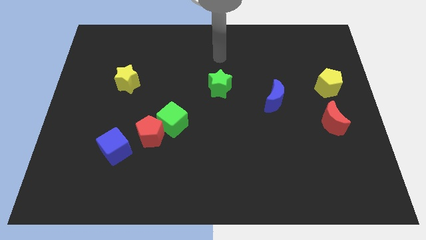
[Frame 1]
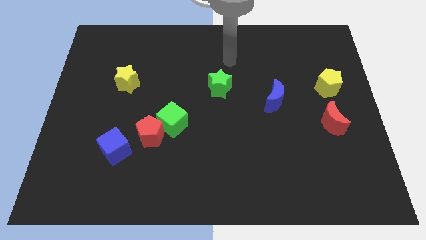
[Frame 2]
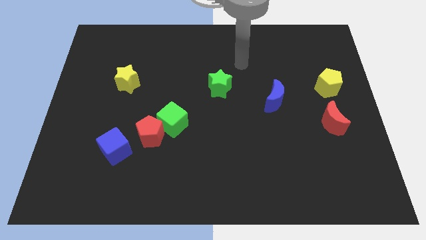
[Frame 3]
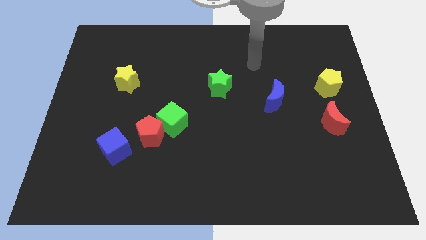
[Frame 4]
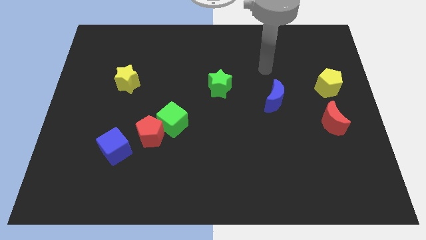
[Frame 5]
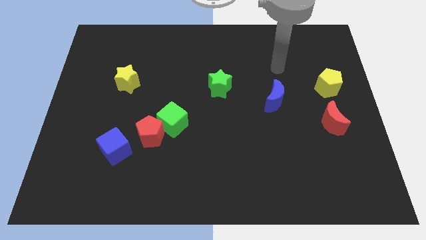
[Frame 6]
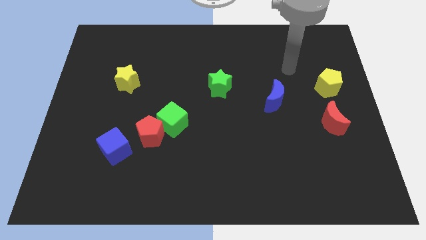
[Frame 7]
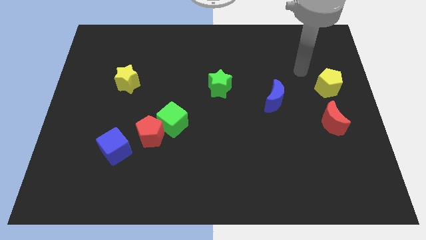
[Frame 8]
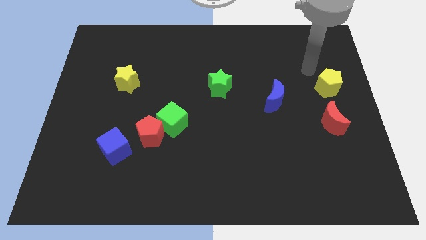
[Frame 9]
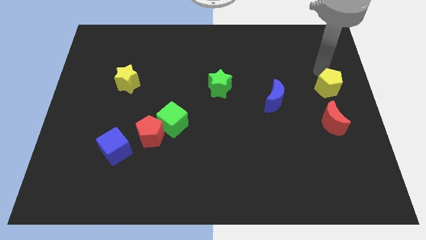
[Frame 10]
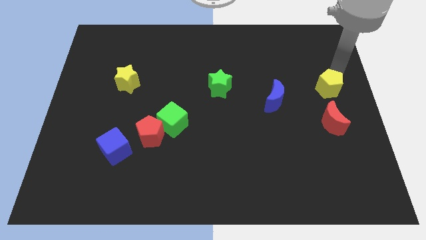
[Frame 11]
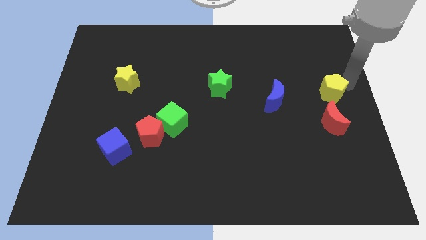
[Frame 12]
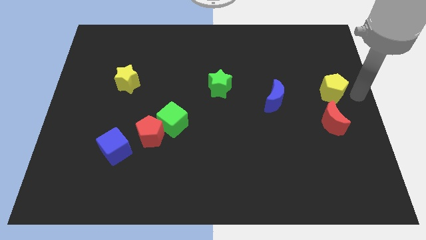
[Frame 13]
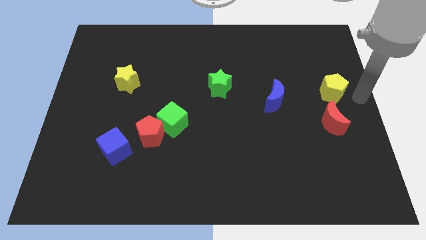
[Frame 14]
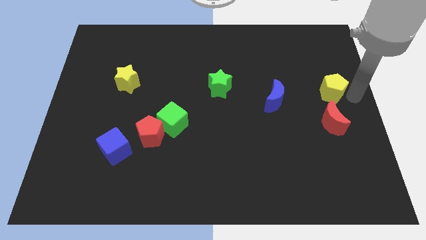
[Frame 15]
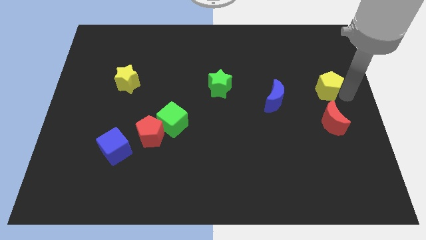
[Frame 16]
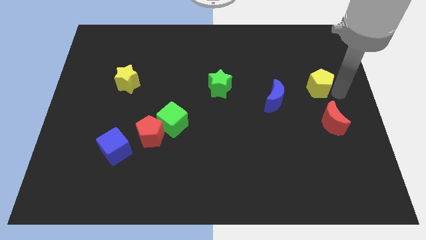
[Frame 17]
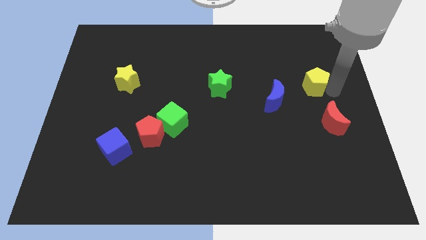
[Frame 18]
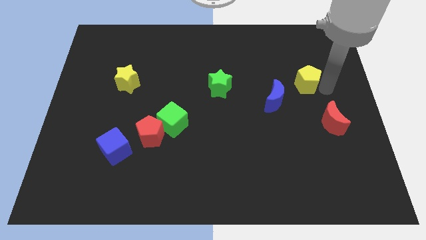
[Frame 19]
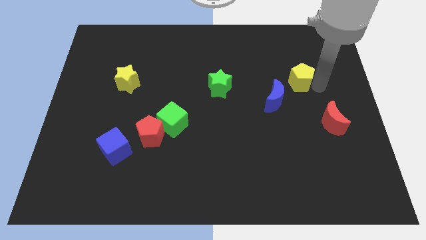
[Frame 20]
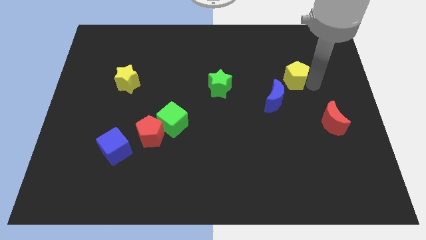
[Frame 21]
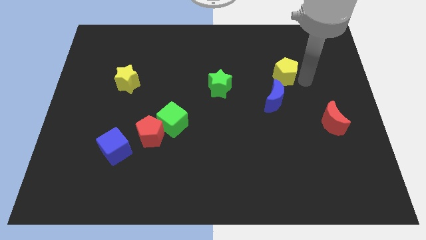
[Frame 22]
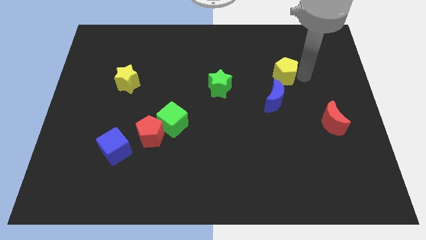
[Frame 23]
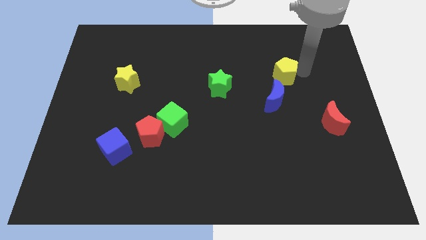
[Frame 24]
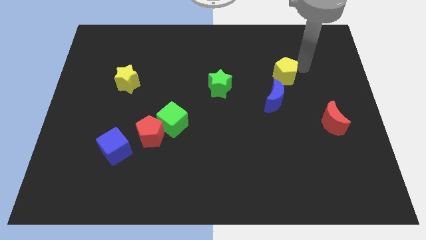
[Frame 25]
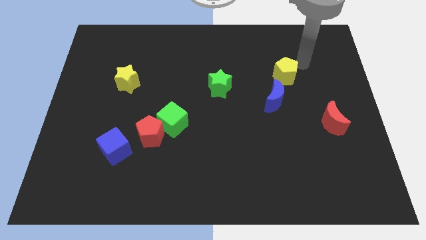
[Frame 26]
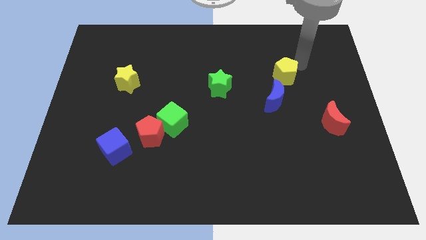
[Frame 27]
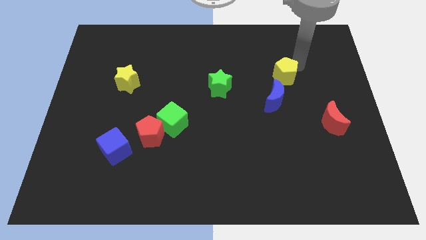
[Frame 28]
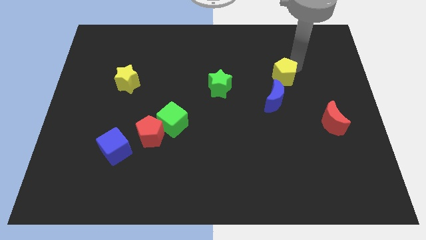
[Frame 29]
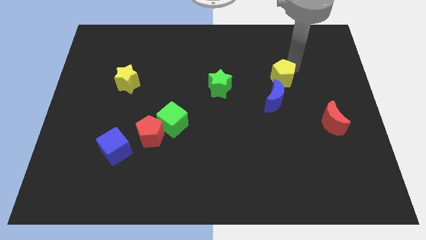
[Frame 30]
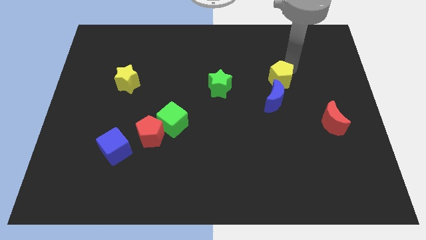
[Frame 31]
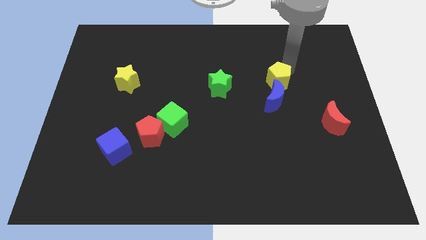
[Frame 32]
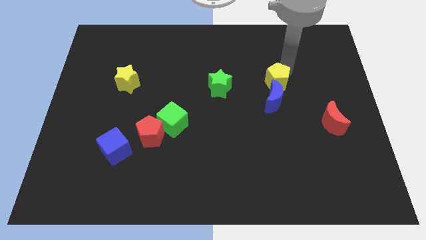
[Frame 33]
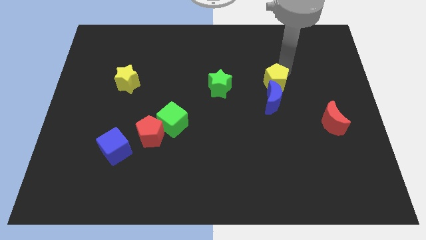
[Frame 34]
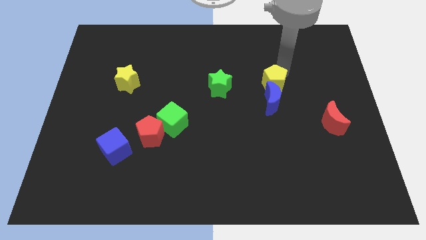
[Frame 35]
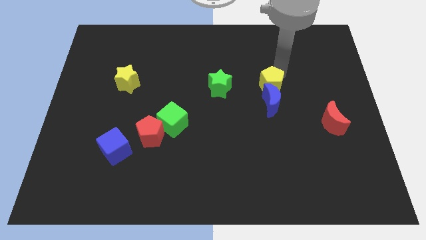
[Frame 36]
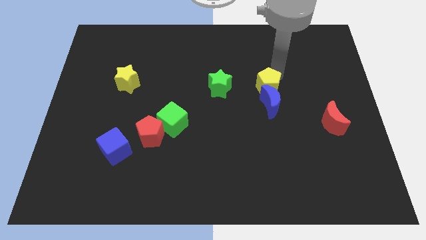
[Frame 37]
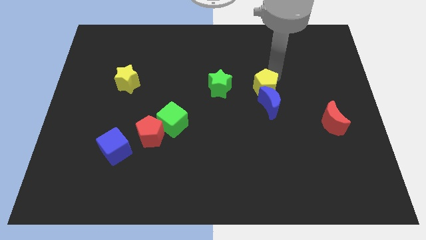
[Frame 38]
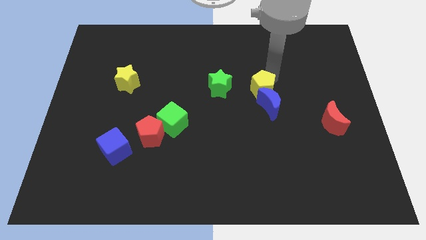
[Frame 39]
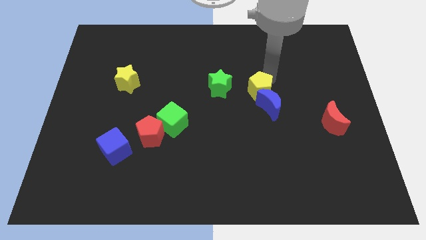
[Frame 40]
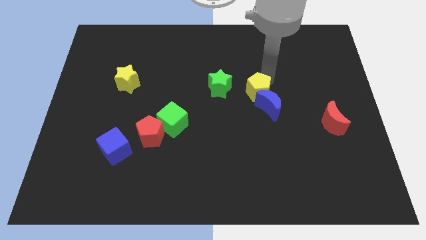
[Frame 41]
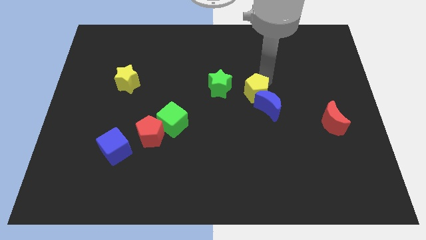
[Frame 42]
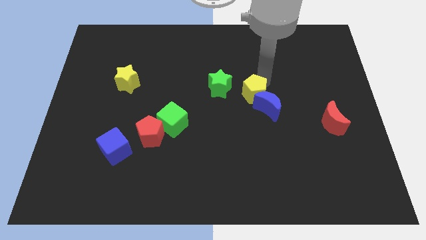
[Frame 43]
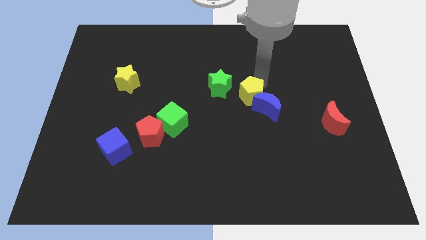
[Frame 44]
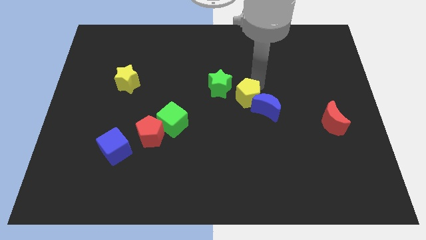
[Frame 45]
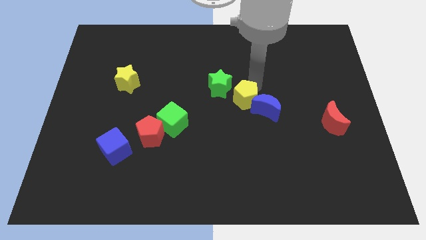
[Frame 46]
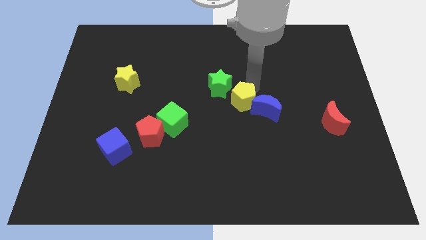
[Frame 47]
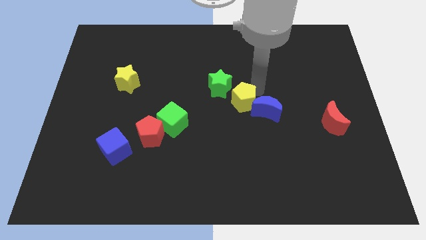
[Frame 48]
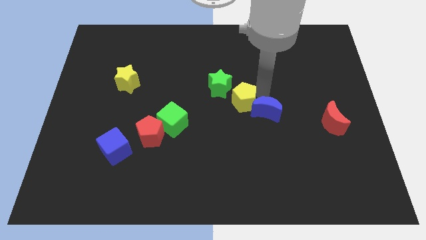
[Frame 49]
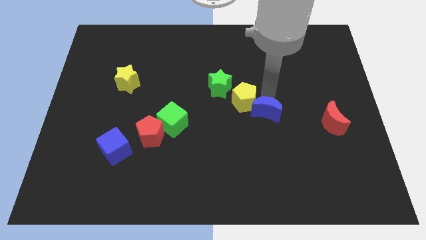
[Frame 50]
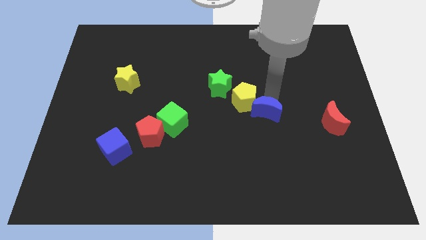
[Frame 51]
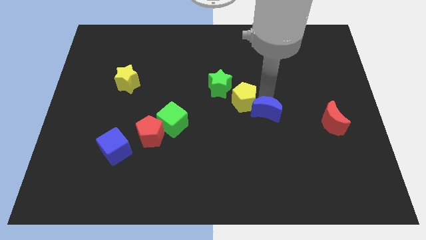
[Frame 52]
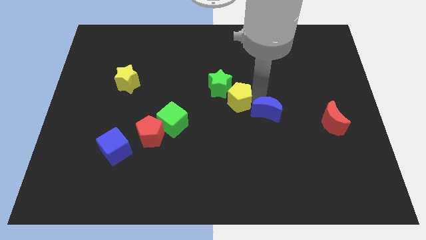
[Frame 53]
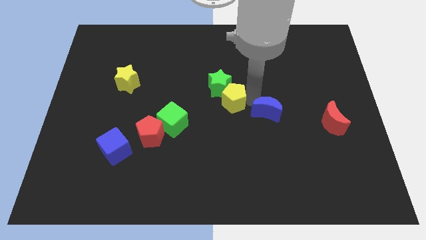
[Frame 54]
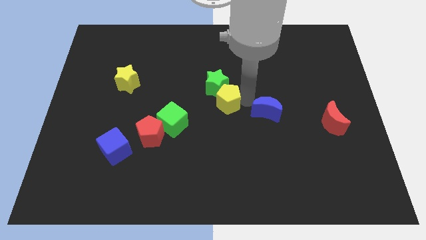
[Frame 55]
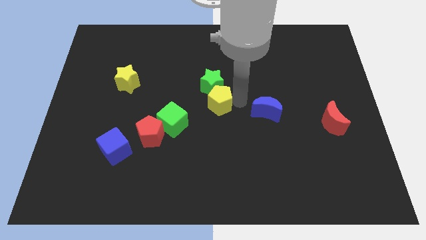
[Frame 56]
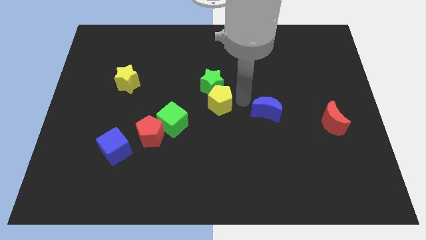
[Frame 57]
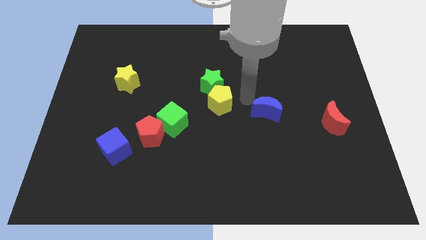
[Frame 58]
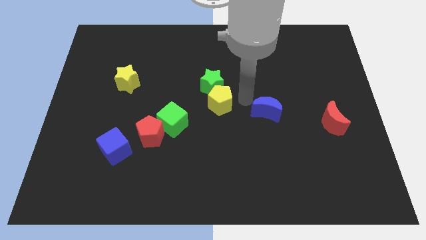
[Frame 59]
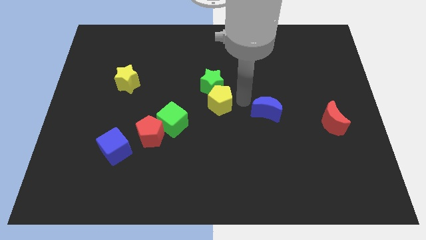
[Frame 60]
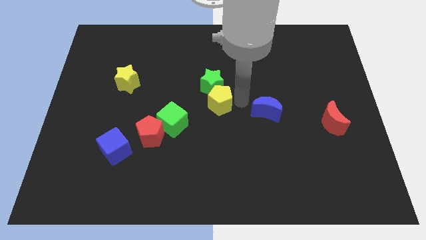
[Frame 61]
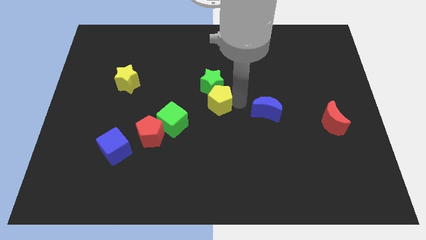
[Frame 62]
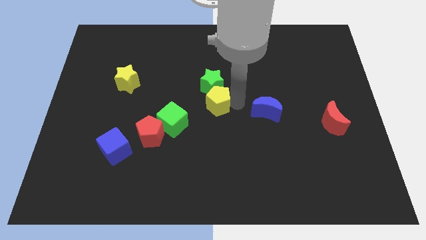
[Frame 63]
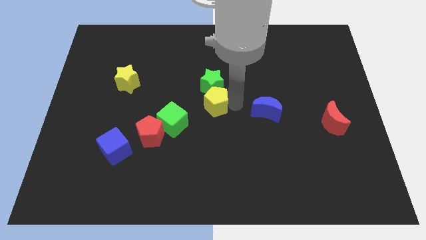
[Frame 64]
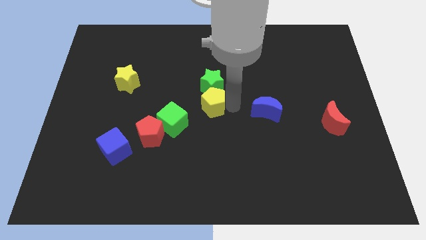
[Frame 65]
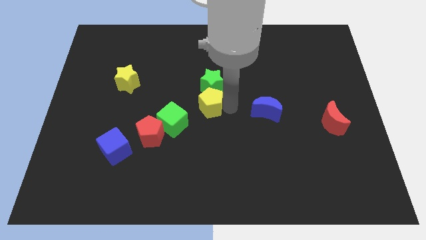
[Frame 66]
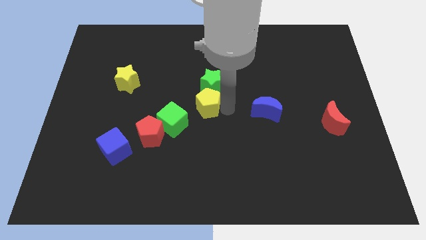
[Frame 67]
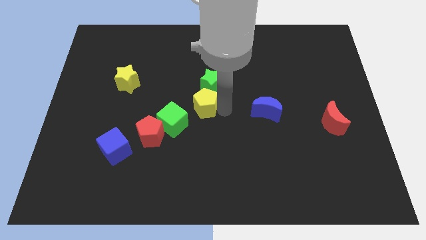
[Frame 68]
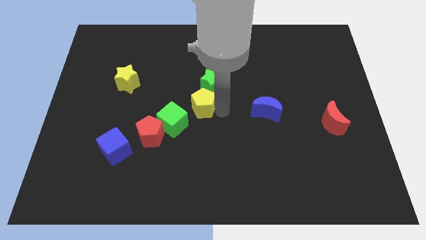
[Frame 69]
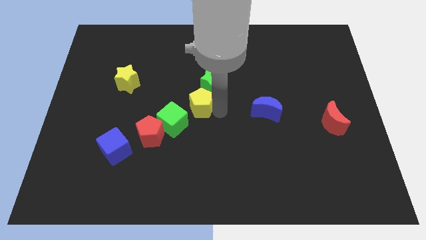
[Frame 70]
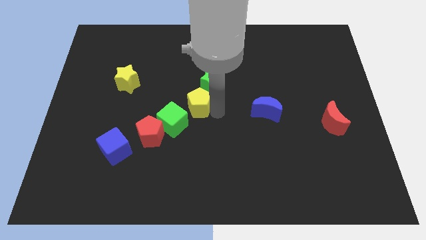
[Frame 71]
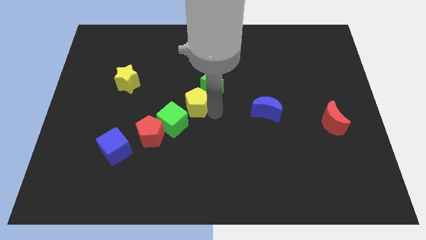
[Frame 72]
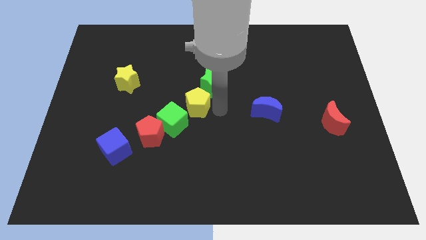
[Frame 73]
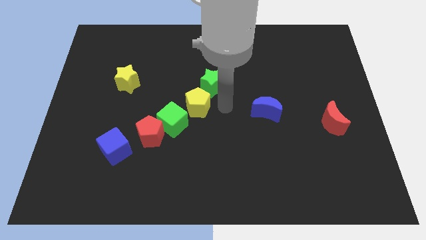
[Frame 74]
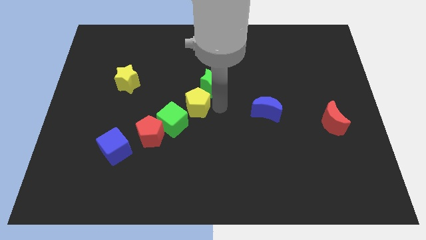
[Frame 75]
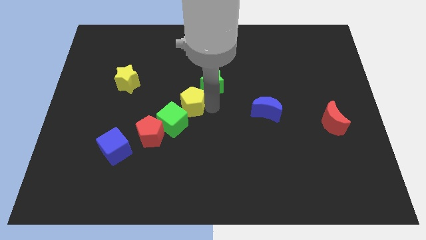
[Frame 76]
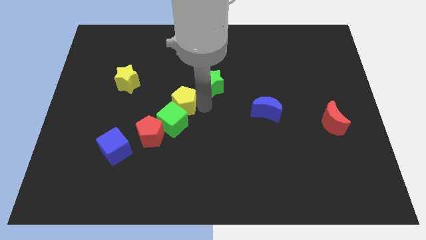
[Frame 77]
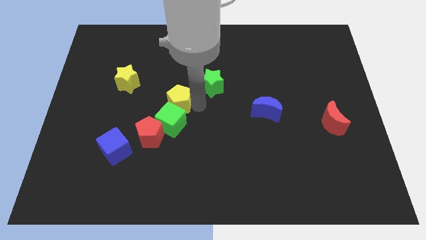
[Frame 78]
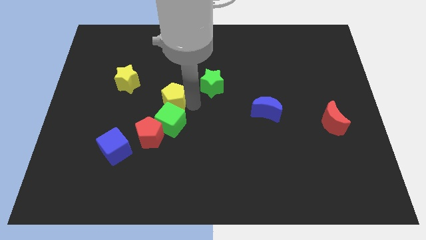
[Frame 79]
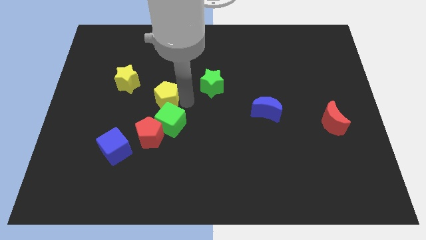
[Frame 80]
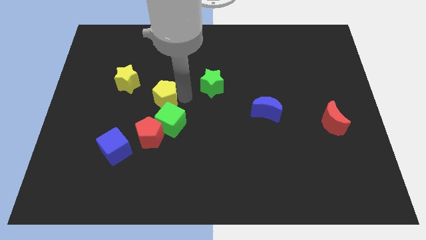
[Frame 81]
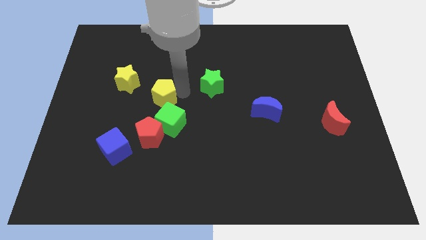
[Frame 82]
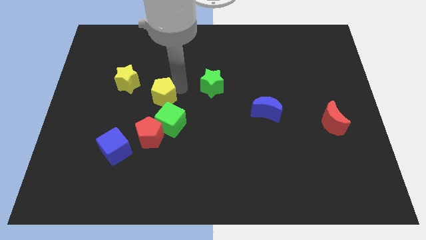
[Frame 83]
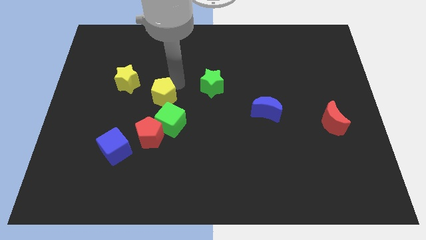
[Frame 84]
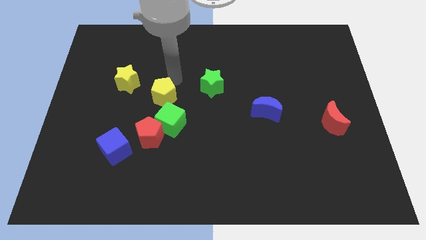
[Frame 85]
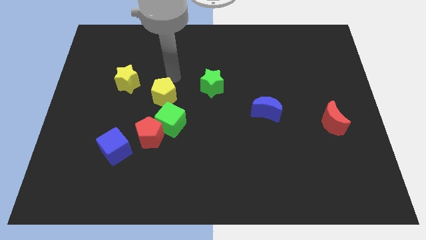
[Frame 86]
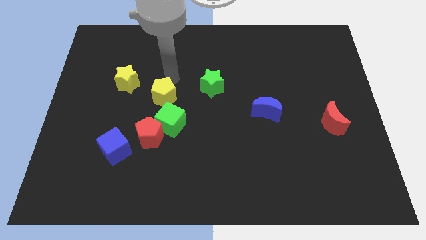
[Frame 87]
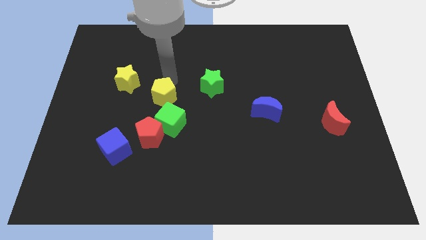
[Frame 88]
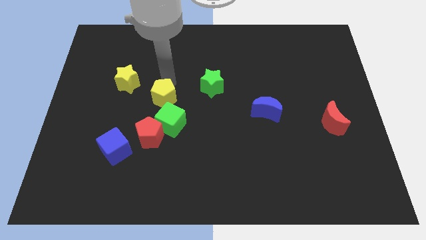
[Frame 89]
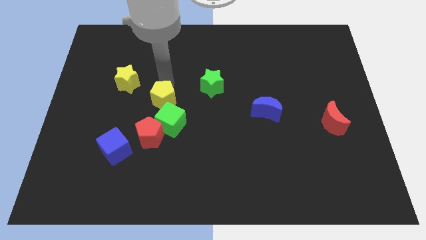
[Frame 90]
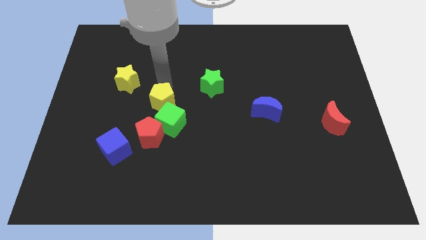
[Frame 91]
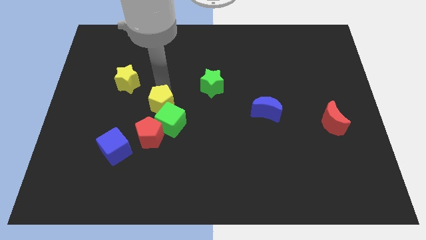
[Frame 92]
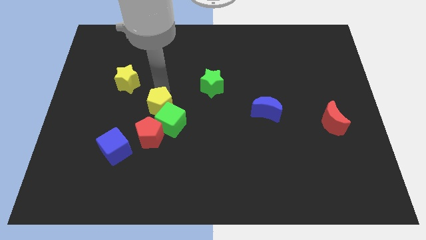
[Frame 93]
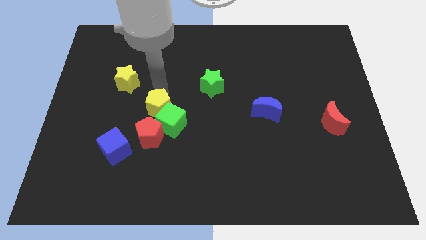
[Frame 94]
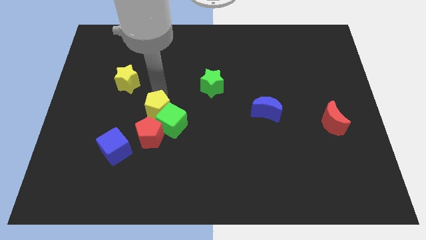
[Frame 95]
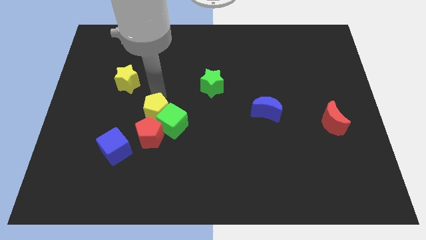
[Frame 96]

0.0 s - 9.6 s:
push the yellow pentagon diagonally up and to the right of the blue cube
